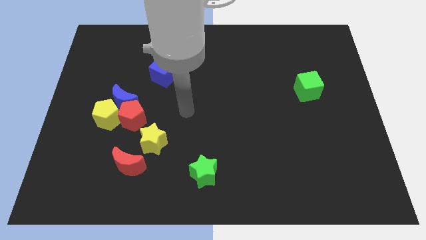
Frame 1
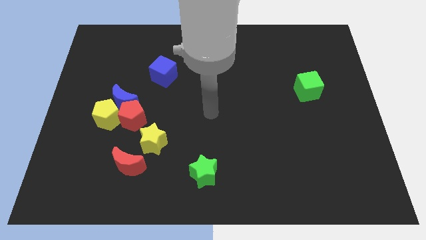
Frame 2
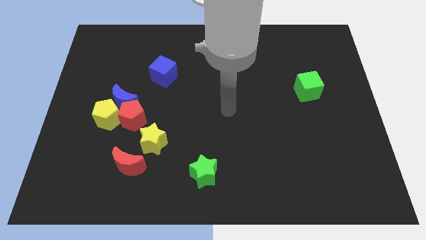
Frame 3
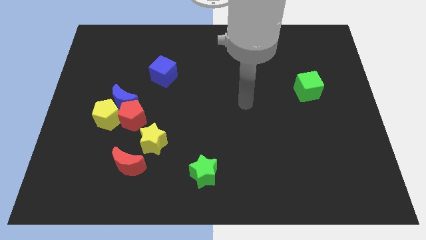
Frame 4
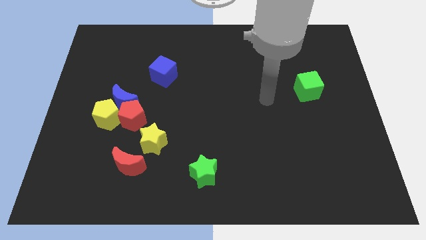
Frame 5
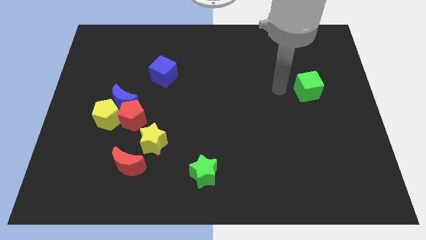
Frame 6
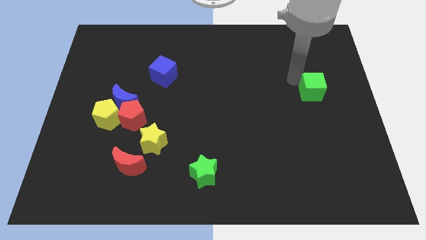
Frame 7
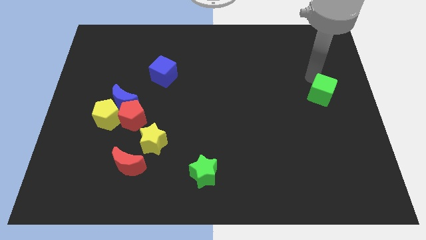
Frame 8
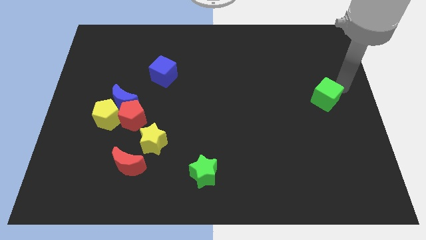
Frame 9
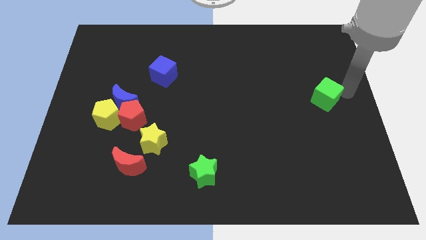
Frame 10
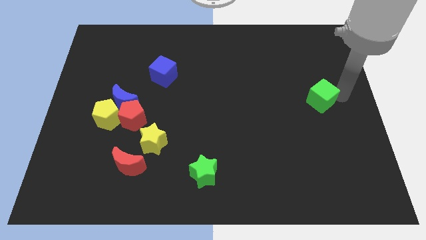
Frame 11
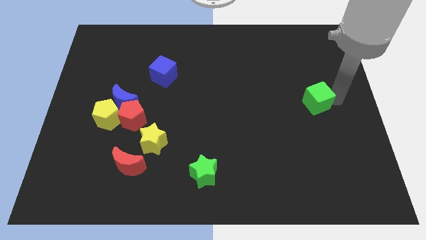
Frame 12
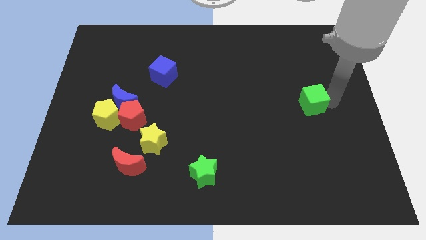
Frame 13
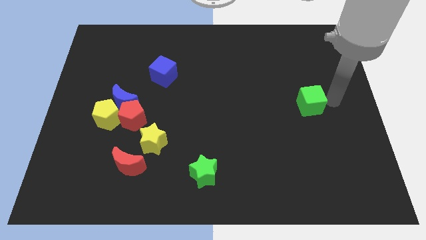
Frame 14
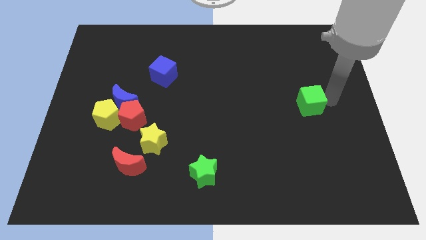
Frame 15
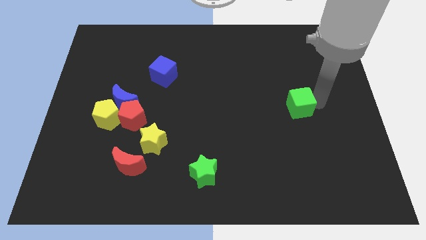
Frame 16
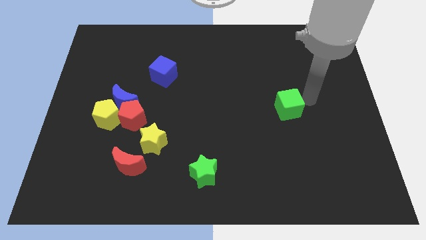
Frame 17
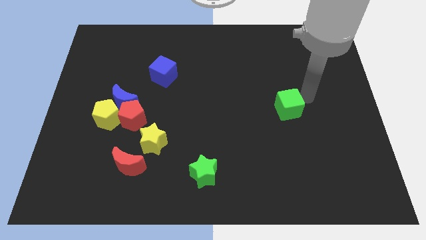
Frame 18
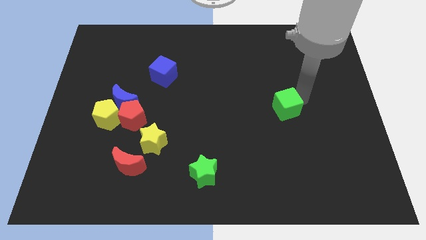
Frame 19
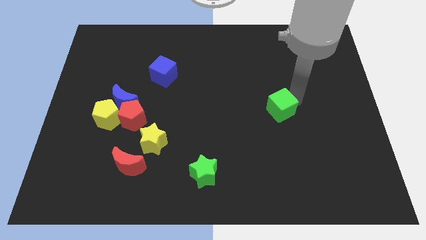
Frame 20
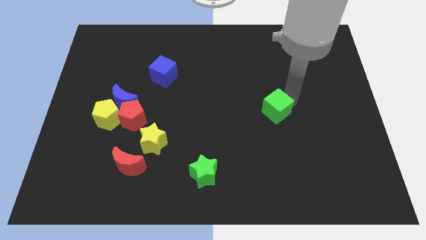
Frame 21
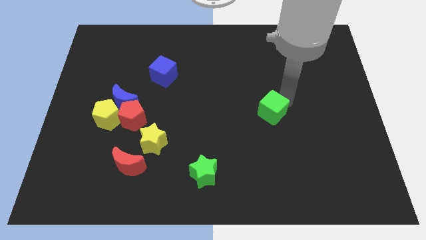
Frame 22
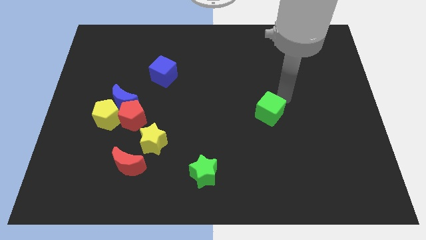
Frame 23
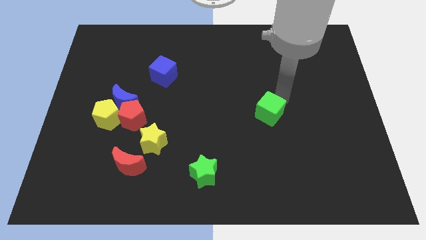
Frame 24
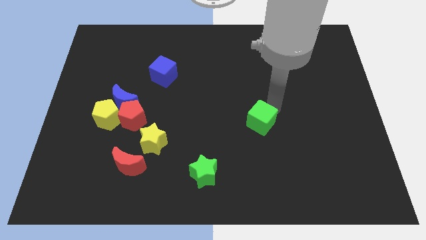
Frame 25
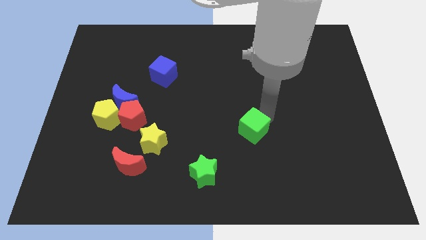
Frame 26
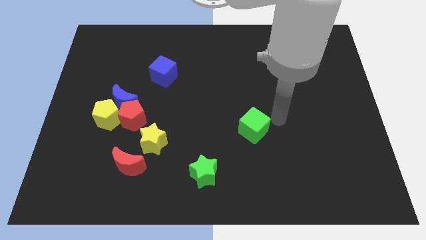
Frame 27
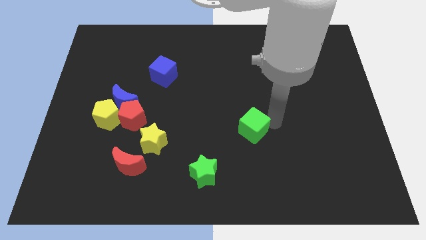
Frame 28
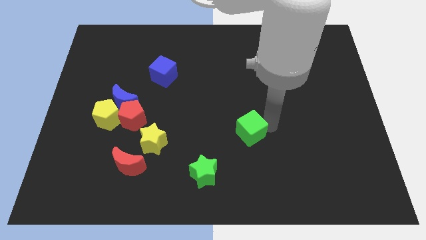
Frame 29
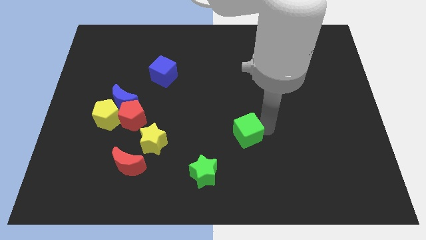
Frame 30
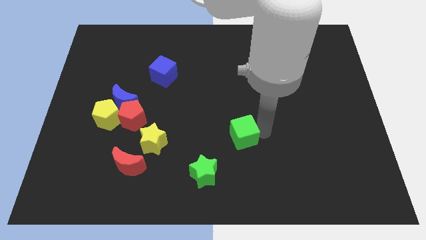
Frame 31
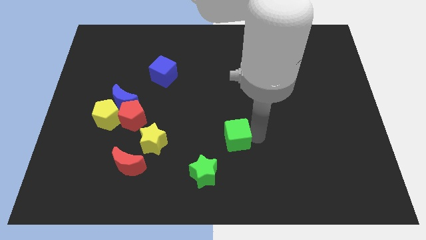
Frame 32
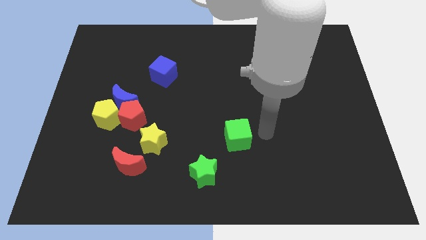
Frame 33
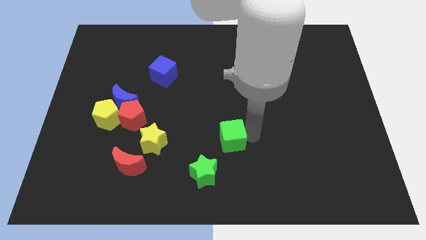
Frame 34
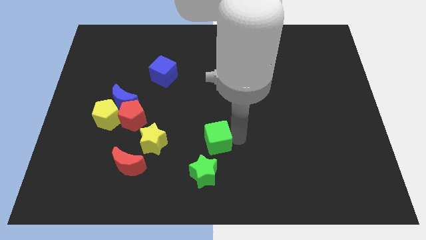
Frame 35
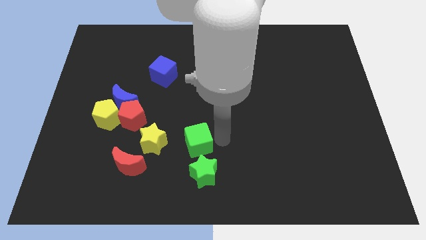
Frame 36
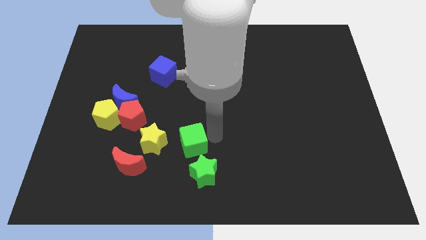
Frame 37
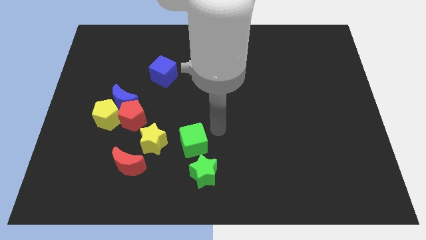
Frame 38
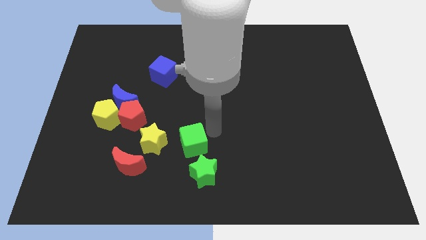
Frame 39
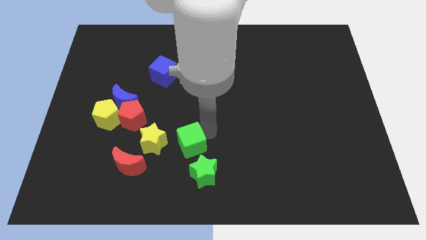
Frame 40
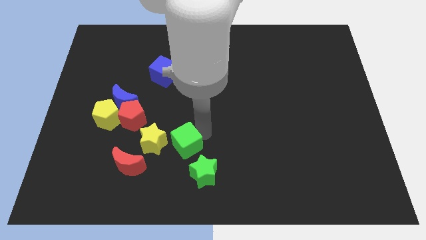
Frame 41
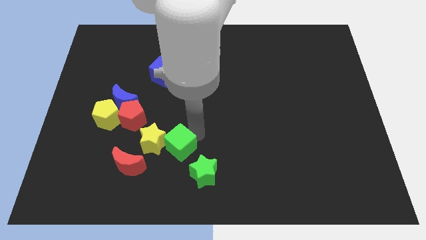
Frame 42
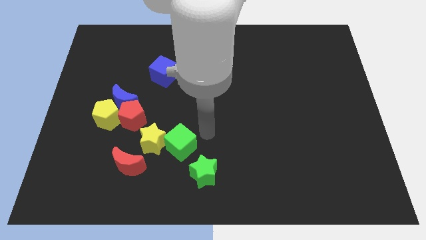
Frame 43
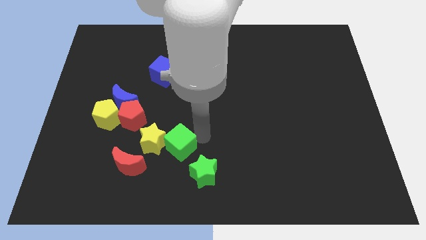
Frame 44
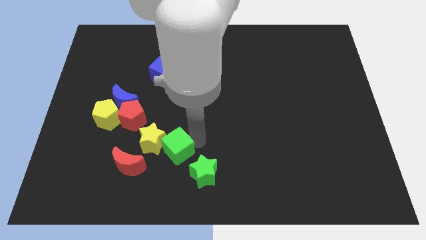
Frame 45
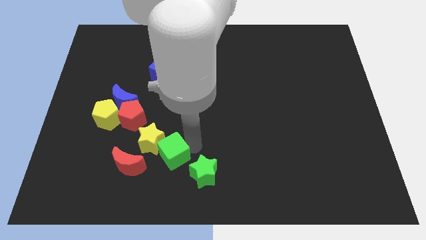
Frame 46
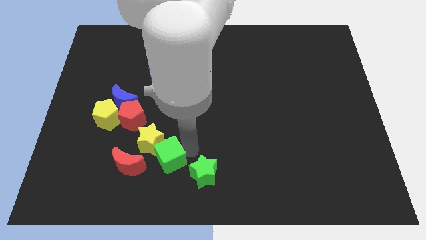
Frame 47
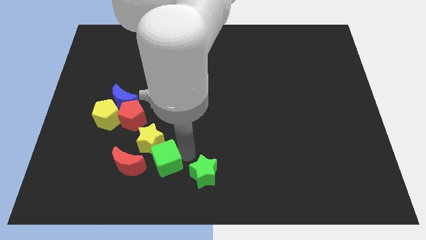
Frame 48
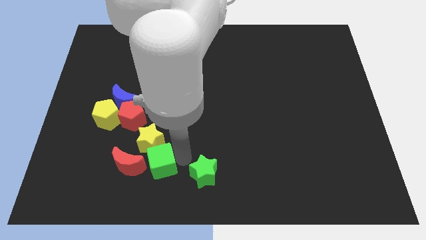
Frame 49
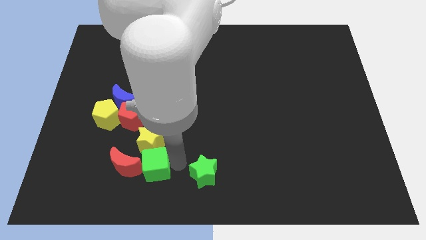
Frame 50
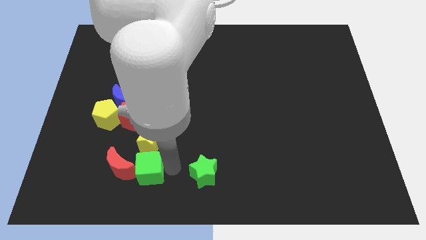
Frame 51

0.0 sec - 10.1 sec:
push the green cube towards the red moon

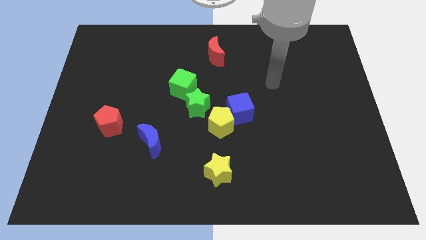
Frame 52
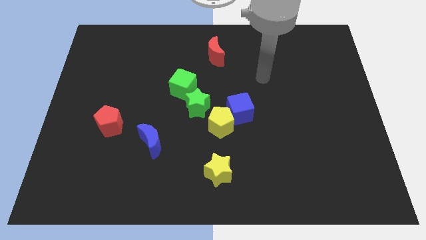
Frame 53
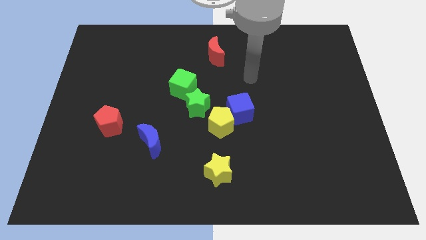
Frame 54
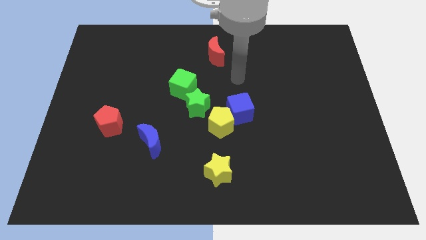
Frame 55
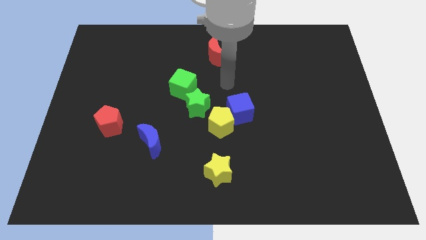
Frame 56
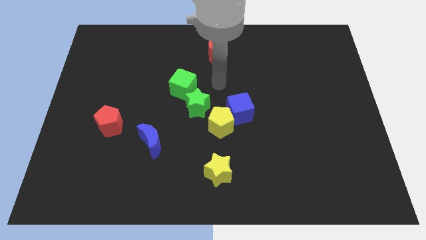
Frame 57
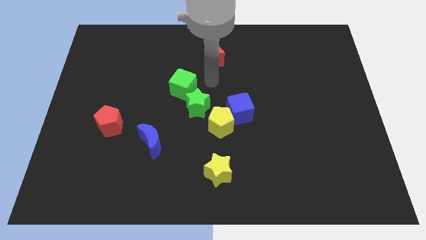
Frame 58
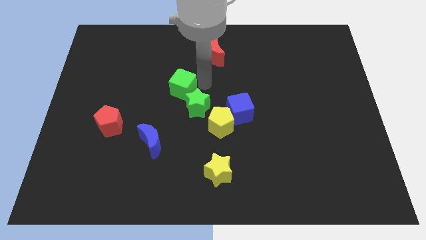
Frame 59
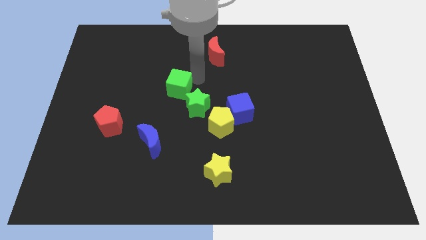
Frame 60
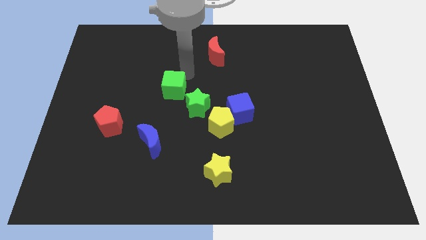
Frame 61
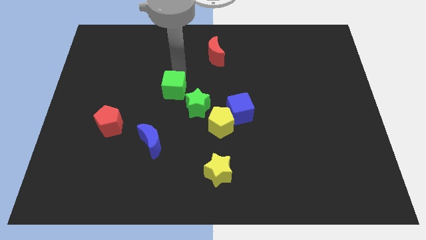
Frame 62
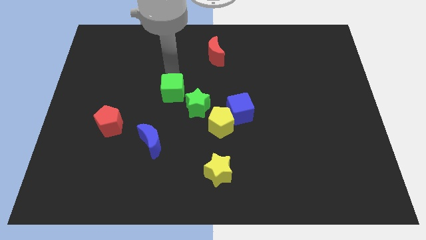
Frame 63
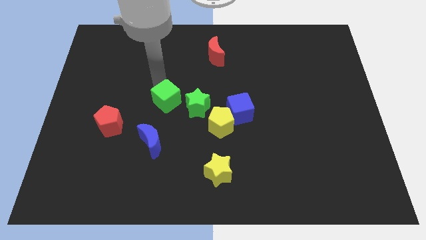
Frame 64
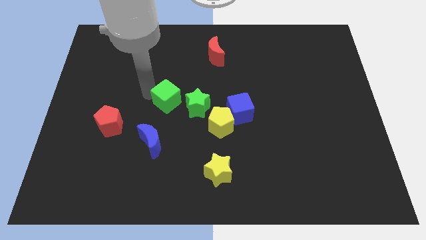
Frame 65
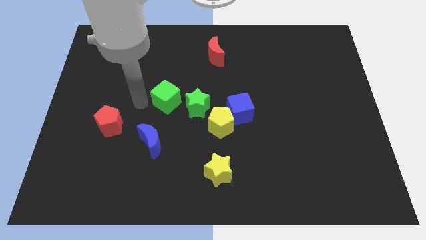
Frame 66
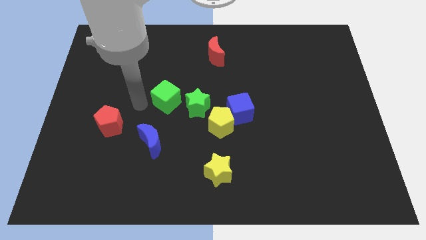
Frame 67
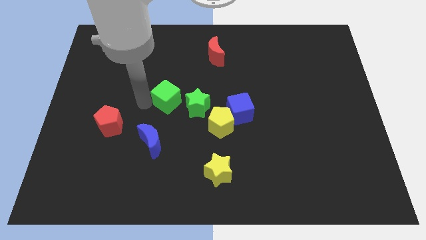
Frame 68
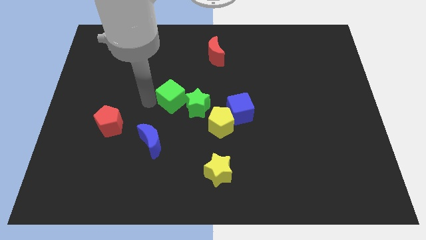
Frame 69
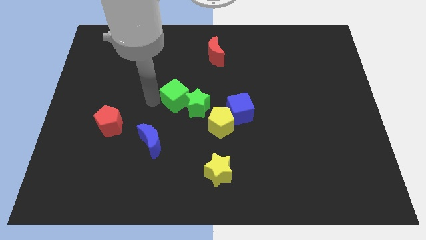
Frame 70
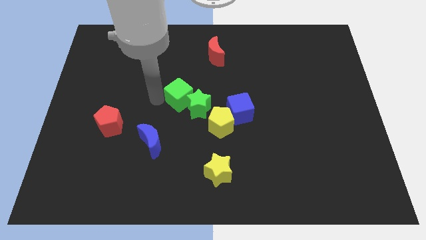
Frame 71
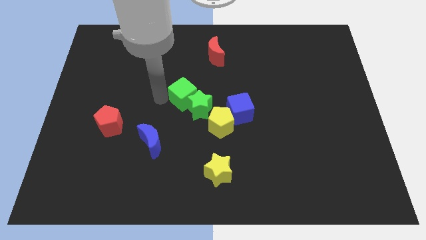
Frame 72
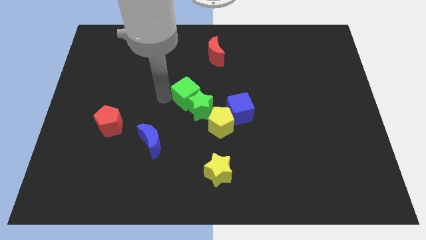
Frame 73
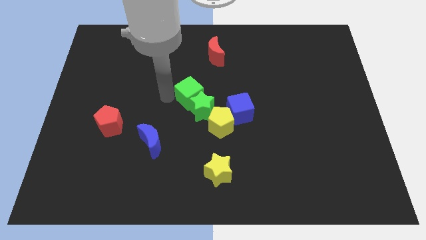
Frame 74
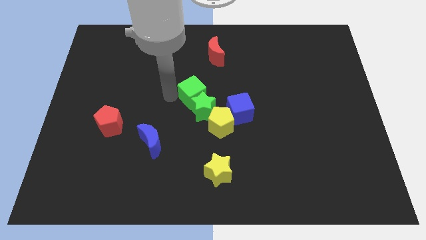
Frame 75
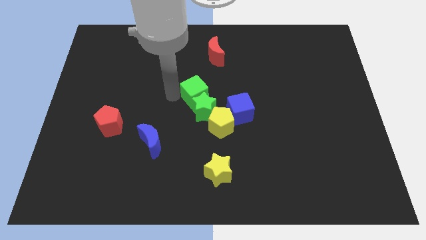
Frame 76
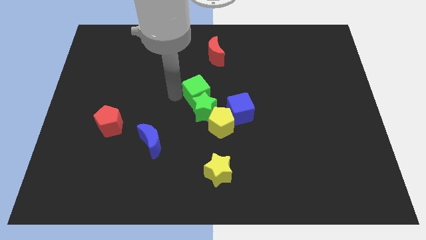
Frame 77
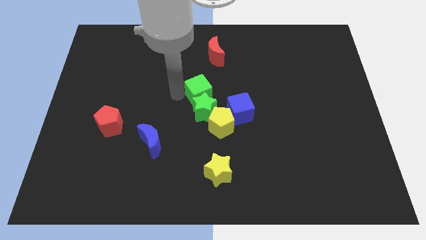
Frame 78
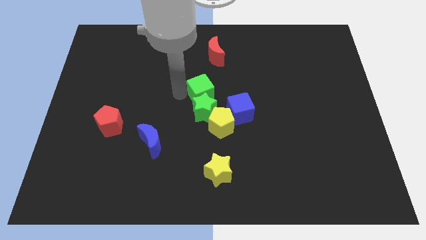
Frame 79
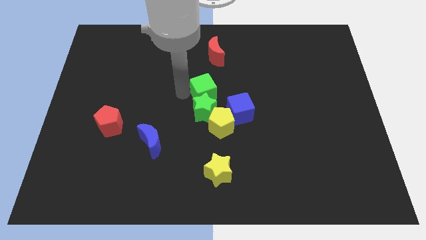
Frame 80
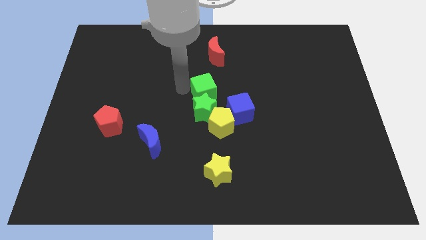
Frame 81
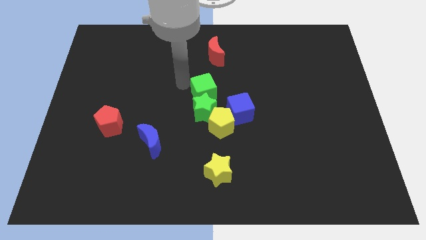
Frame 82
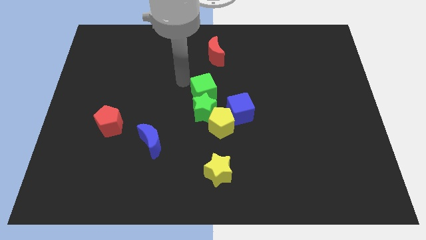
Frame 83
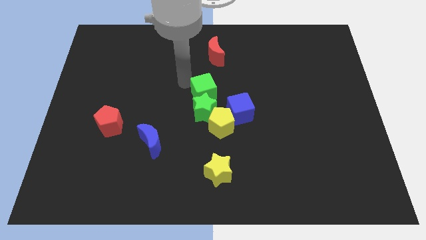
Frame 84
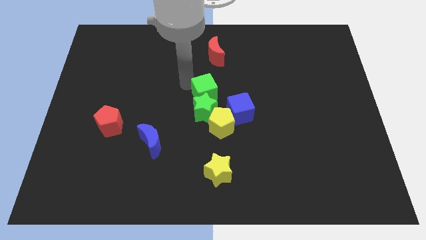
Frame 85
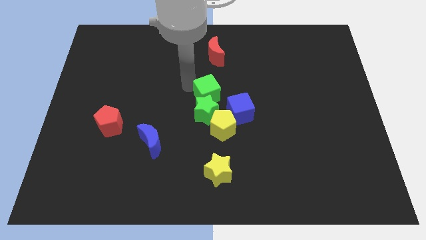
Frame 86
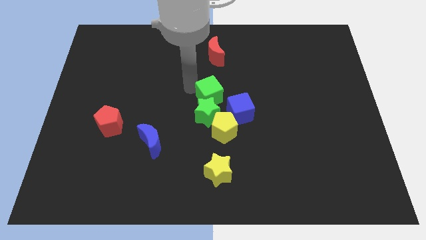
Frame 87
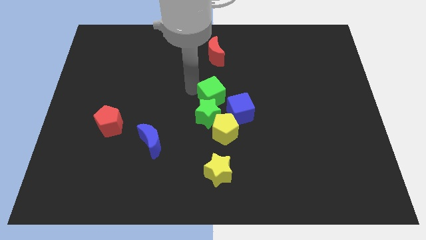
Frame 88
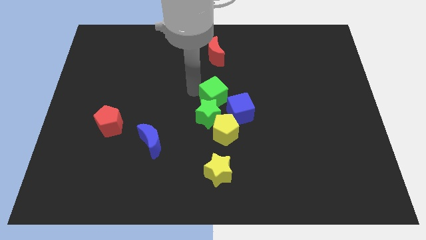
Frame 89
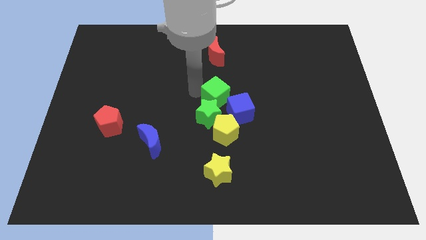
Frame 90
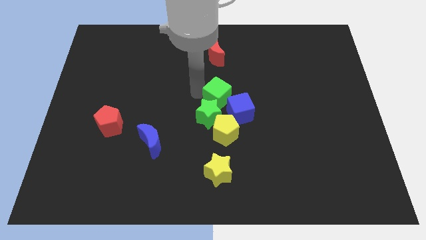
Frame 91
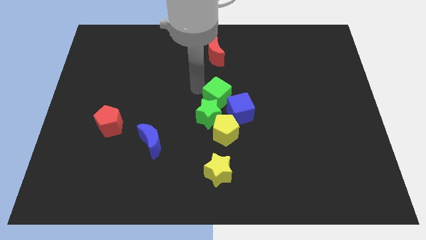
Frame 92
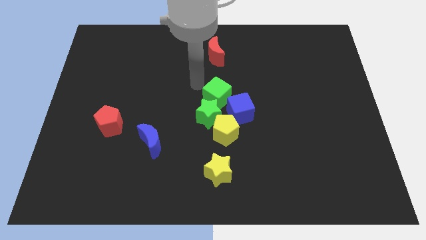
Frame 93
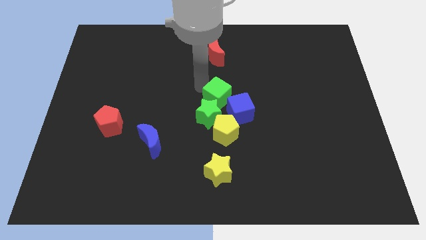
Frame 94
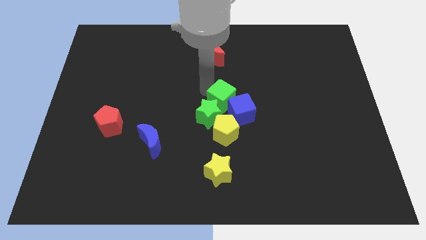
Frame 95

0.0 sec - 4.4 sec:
push the green cube towards the blue cube
